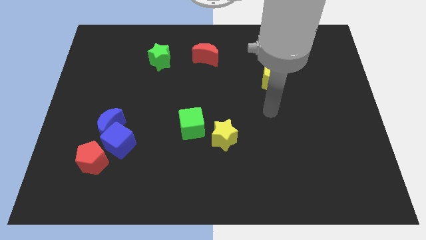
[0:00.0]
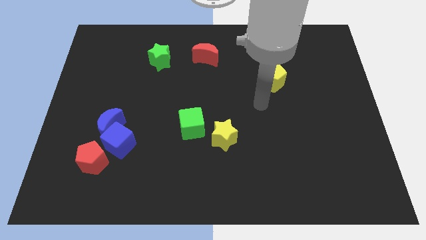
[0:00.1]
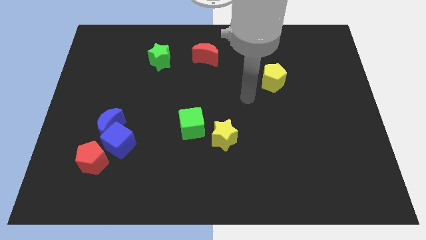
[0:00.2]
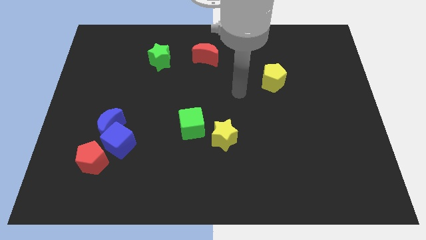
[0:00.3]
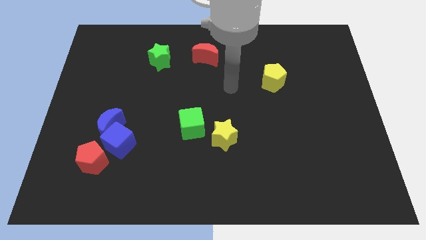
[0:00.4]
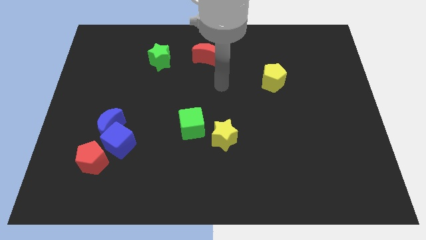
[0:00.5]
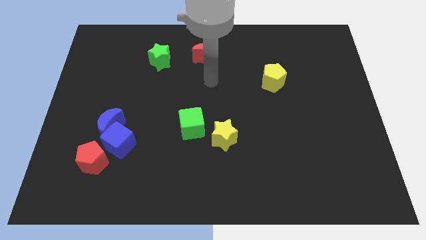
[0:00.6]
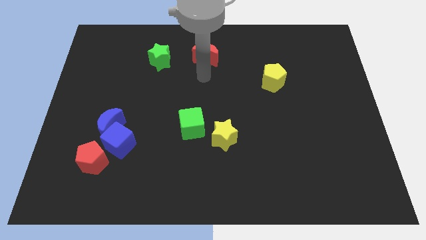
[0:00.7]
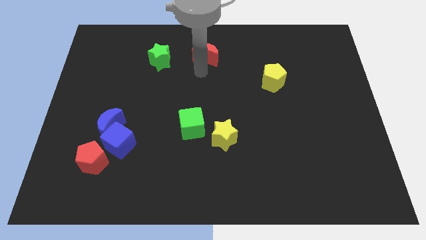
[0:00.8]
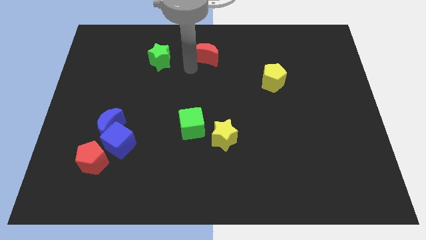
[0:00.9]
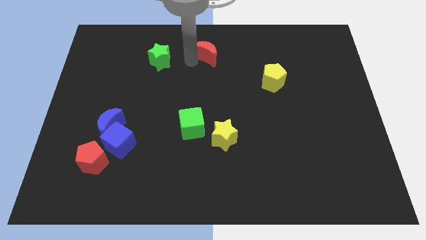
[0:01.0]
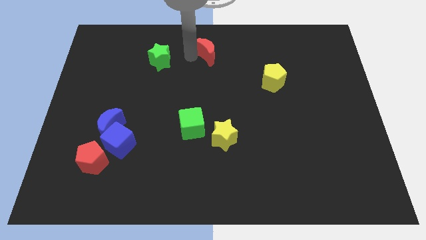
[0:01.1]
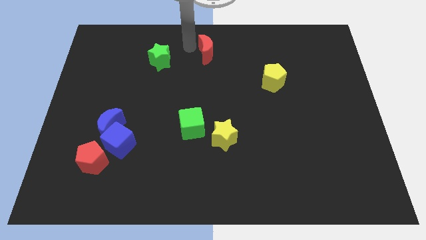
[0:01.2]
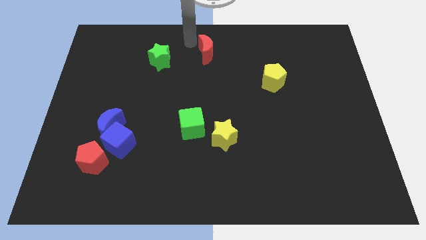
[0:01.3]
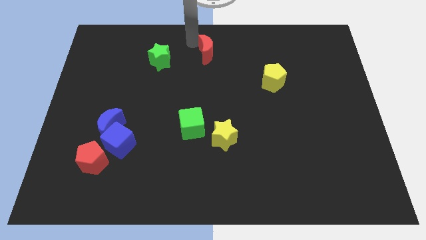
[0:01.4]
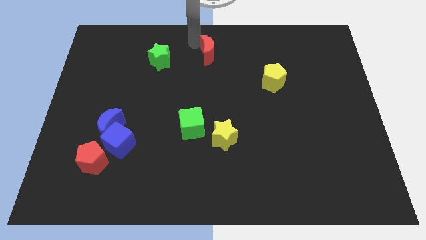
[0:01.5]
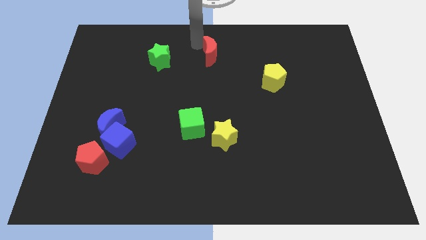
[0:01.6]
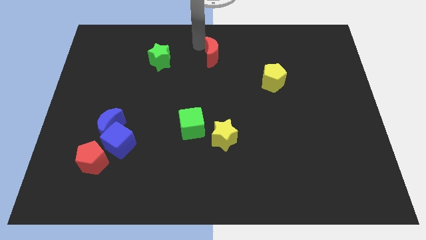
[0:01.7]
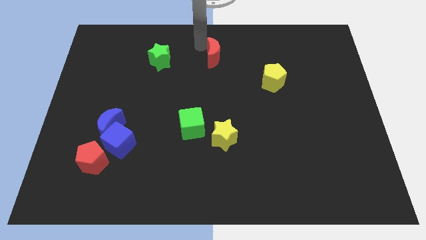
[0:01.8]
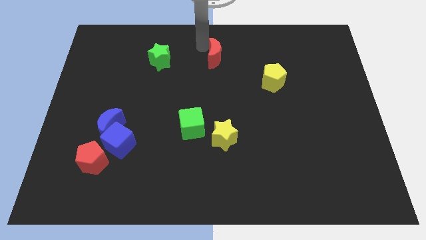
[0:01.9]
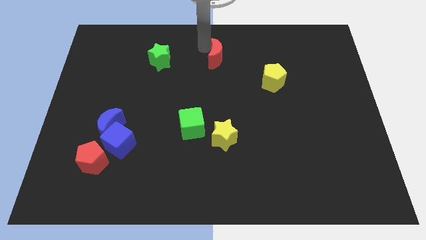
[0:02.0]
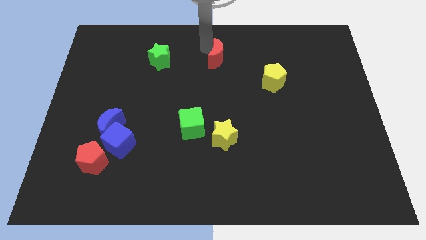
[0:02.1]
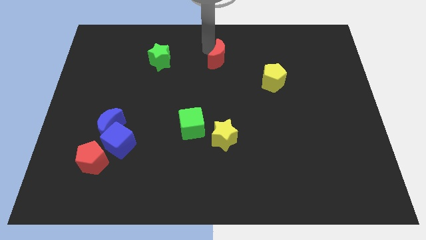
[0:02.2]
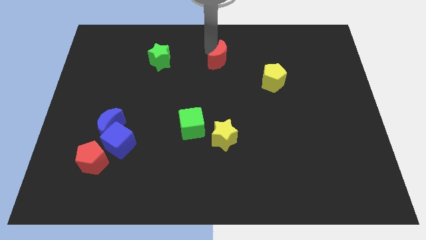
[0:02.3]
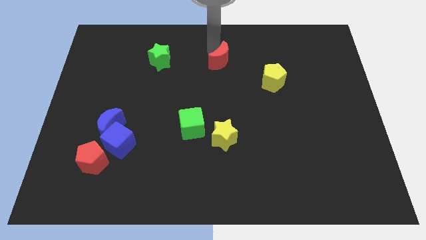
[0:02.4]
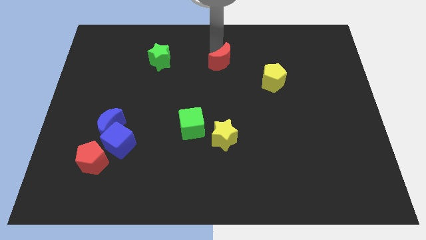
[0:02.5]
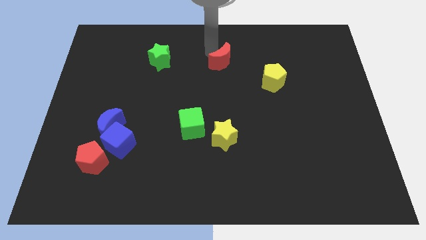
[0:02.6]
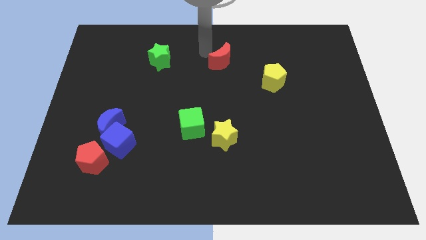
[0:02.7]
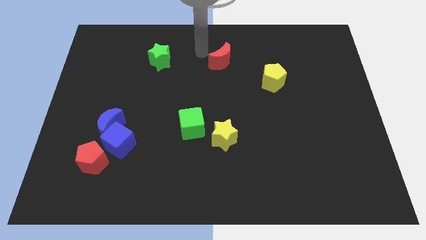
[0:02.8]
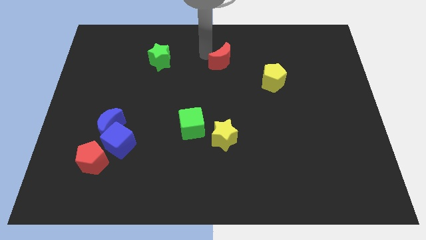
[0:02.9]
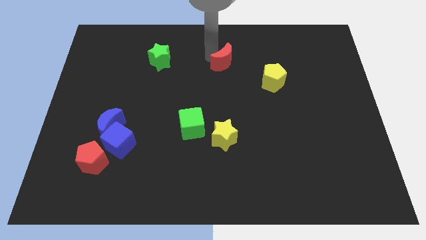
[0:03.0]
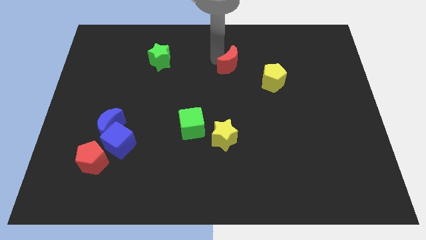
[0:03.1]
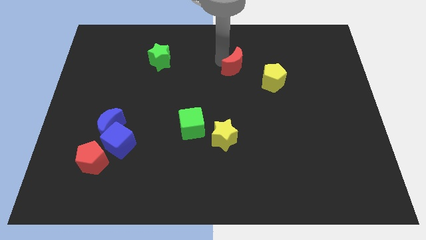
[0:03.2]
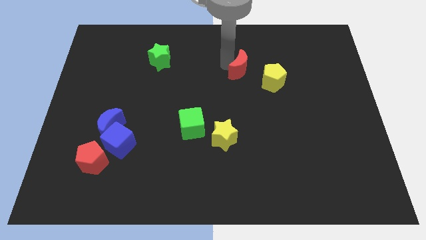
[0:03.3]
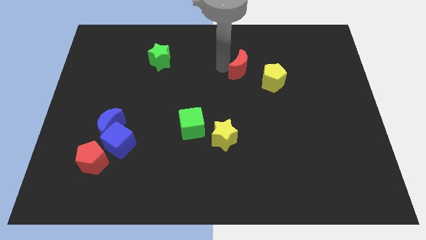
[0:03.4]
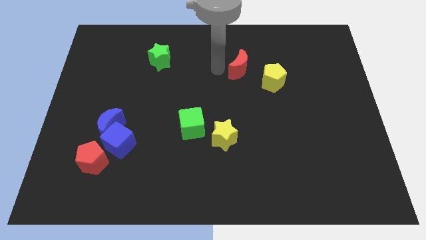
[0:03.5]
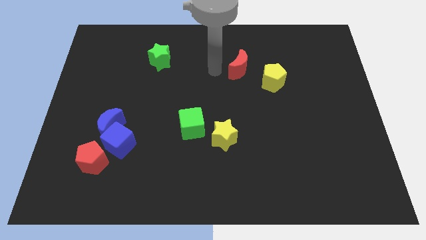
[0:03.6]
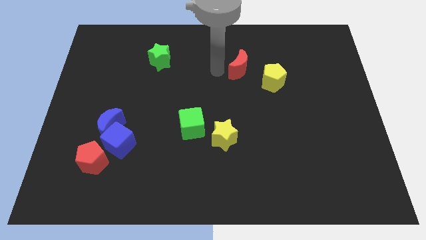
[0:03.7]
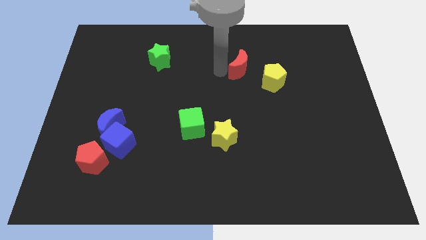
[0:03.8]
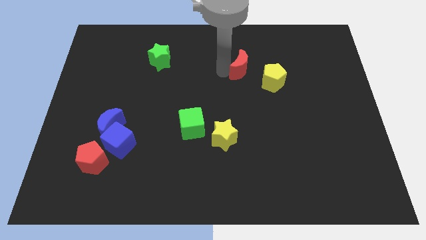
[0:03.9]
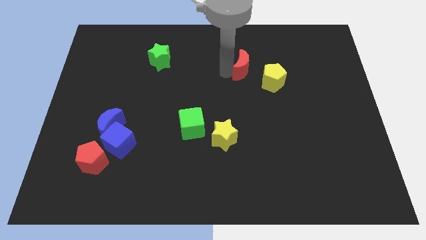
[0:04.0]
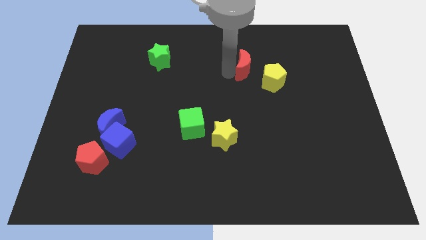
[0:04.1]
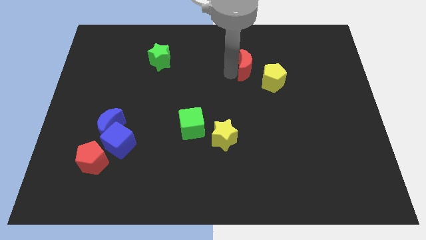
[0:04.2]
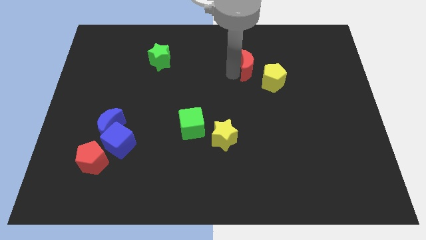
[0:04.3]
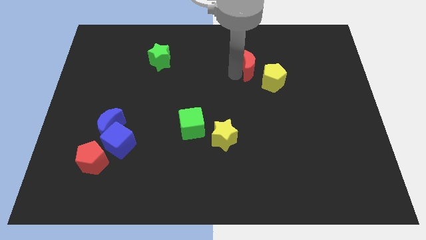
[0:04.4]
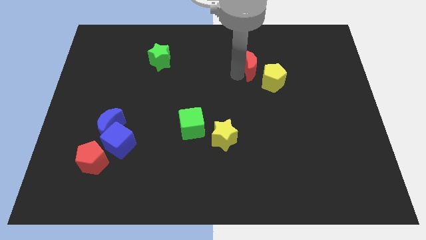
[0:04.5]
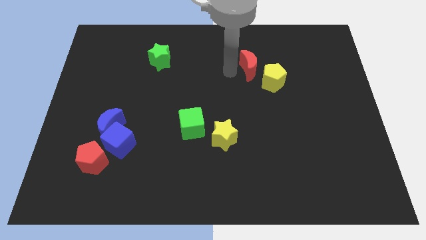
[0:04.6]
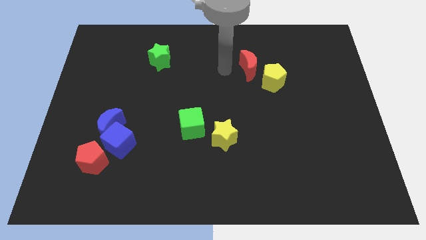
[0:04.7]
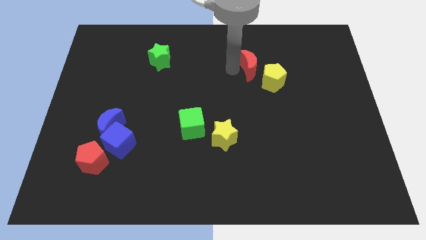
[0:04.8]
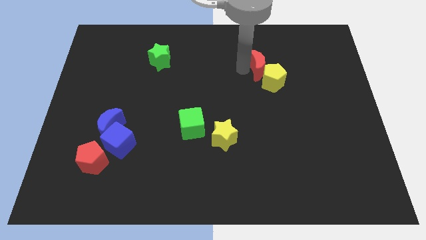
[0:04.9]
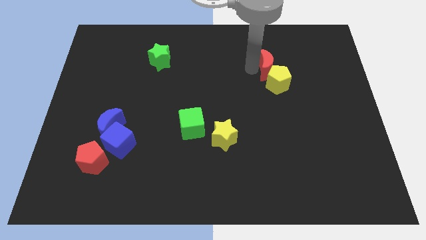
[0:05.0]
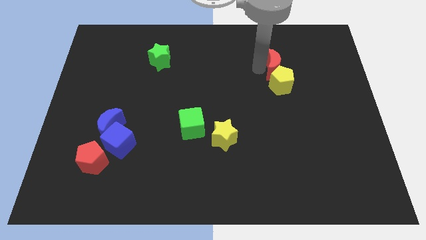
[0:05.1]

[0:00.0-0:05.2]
move the red moon to the top right of the yellow pentagon

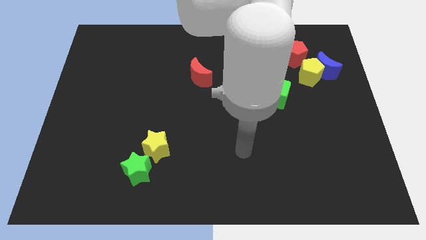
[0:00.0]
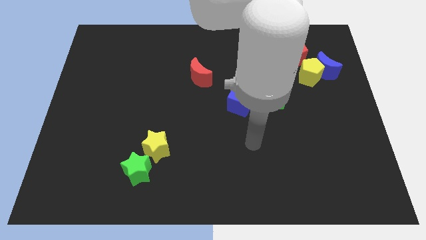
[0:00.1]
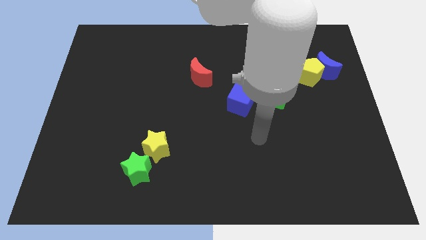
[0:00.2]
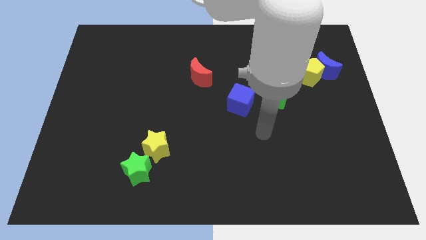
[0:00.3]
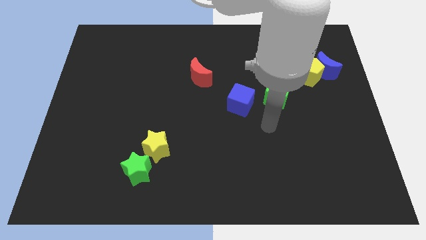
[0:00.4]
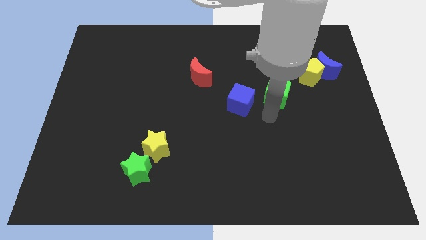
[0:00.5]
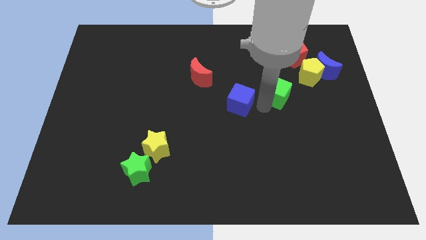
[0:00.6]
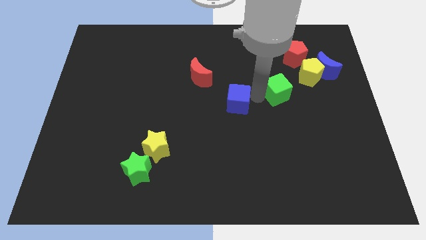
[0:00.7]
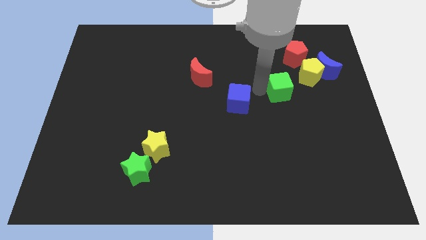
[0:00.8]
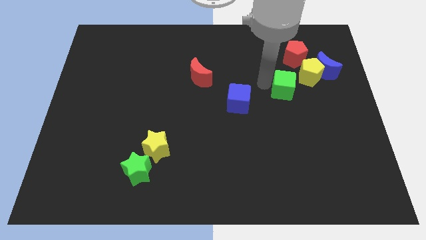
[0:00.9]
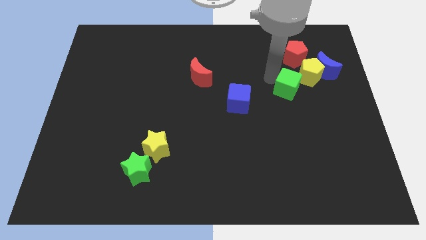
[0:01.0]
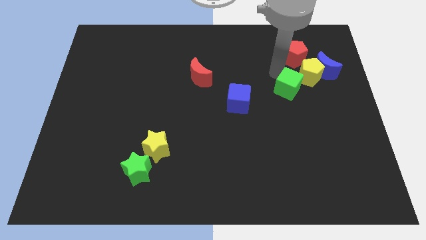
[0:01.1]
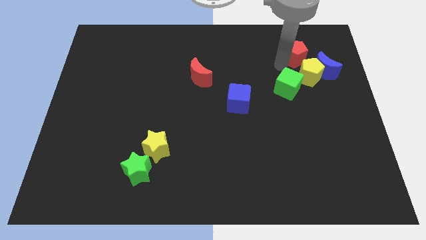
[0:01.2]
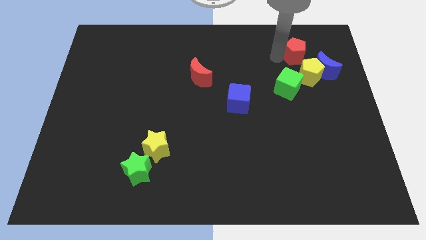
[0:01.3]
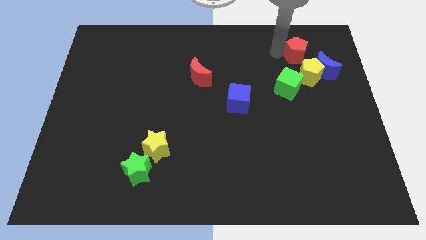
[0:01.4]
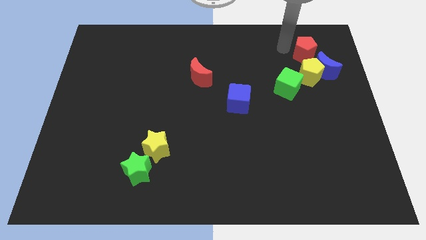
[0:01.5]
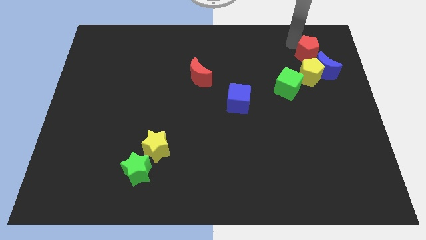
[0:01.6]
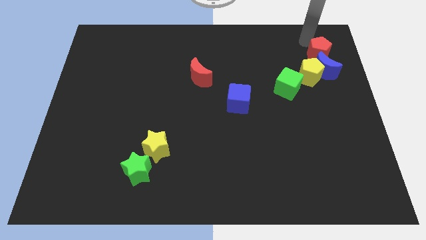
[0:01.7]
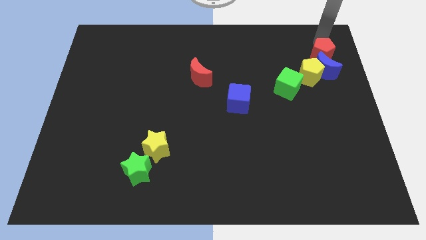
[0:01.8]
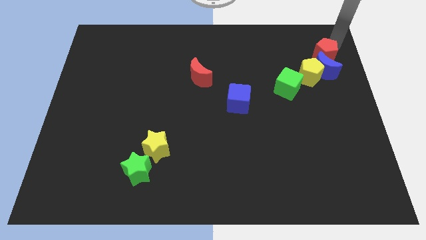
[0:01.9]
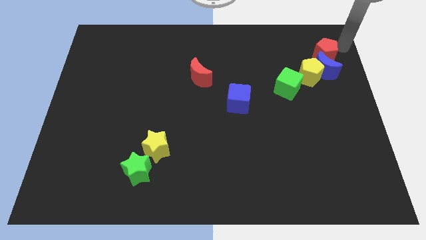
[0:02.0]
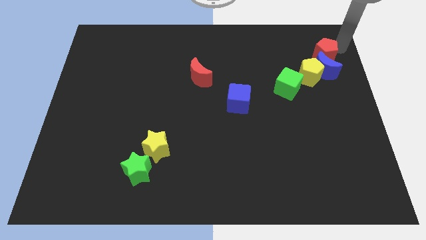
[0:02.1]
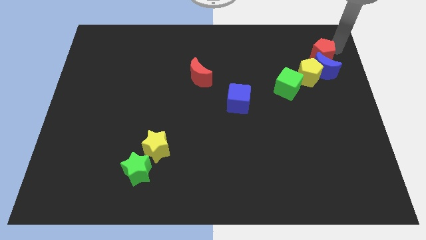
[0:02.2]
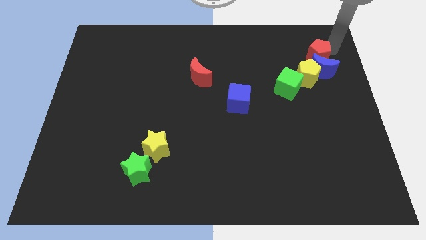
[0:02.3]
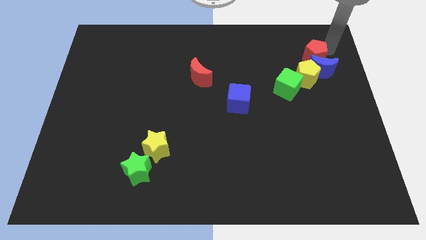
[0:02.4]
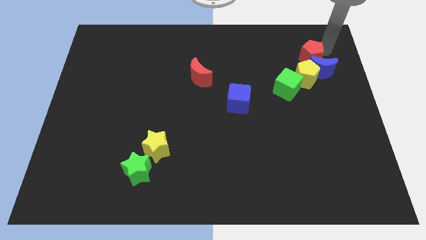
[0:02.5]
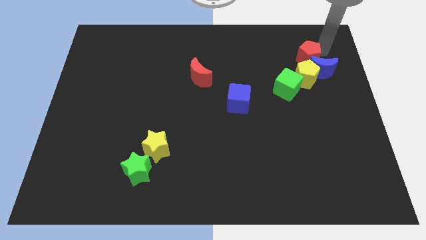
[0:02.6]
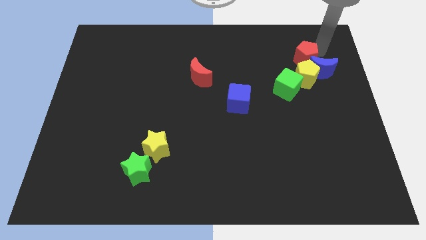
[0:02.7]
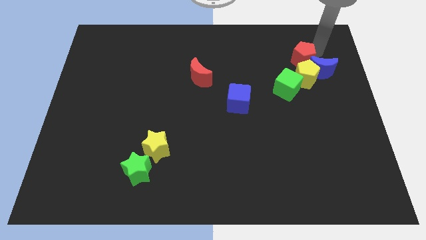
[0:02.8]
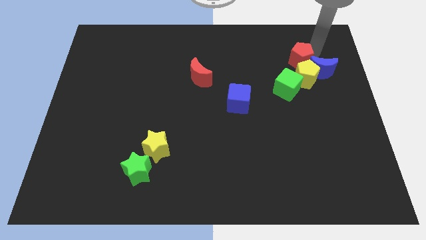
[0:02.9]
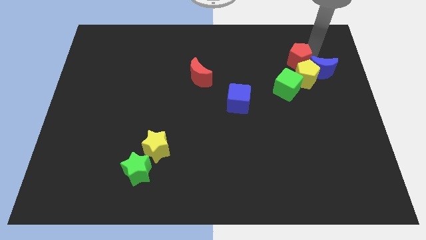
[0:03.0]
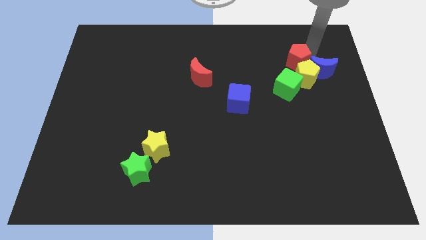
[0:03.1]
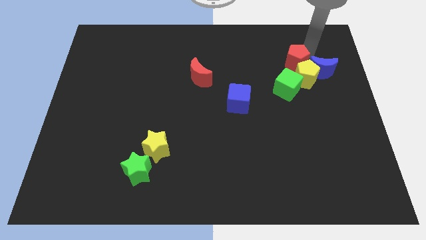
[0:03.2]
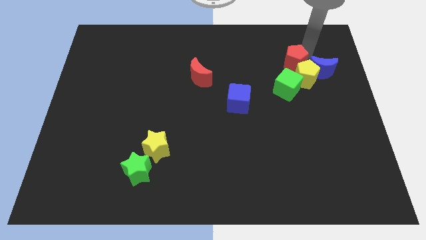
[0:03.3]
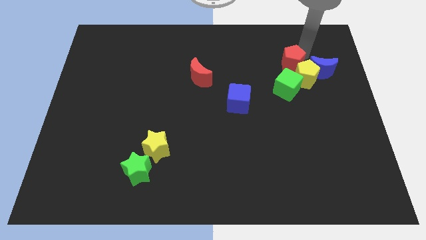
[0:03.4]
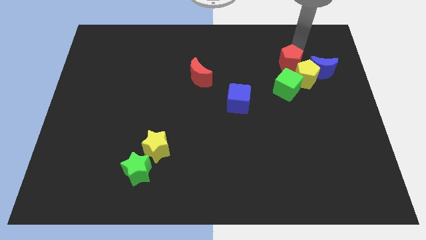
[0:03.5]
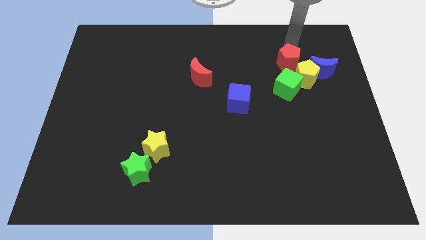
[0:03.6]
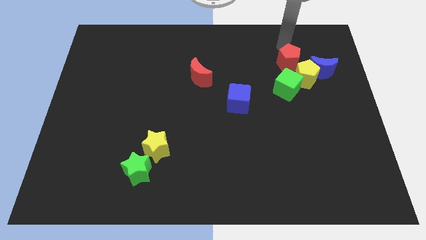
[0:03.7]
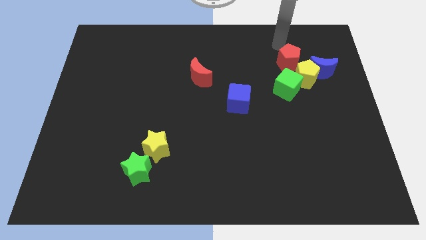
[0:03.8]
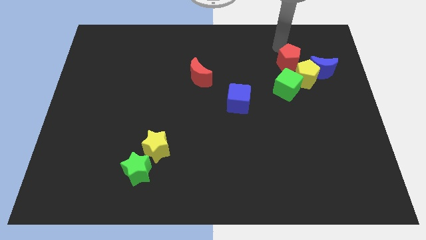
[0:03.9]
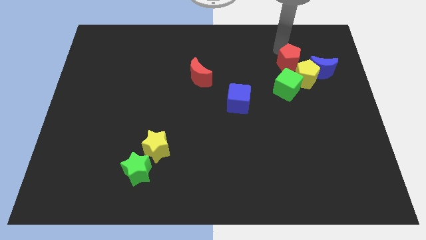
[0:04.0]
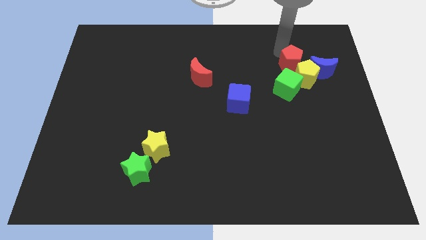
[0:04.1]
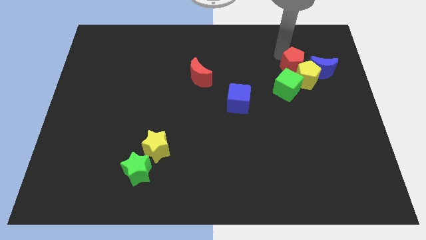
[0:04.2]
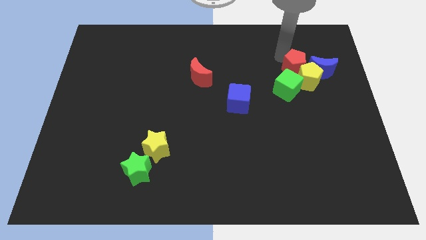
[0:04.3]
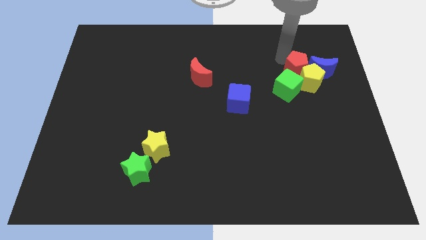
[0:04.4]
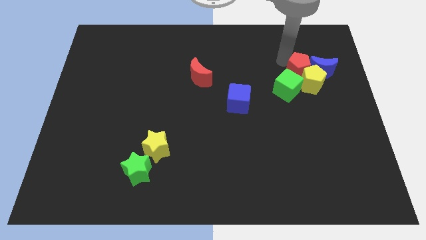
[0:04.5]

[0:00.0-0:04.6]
push the red pentagon to the bottom left side of the blue moon
